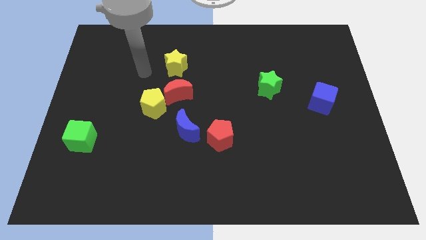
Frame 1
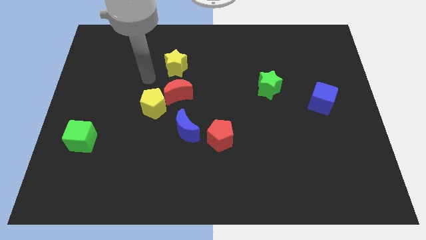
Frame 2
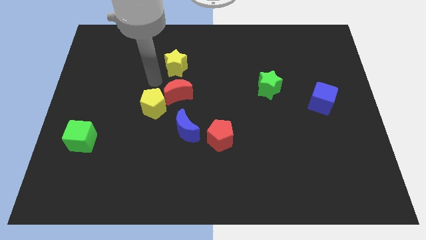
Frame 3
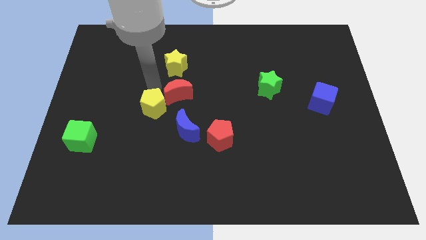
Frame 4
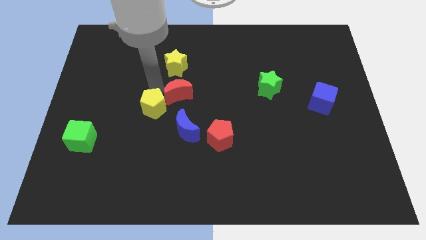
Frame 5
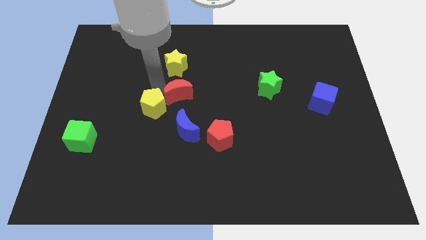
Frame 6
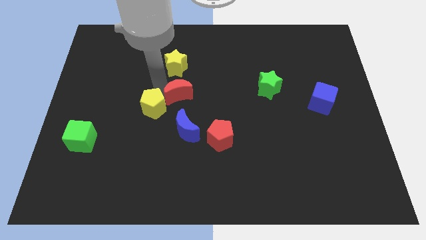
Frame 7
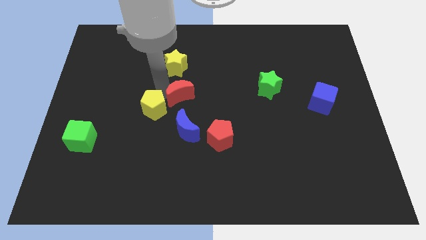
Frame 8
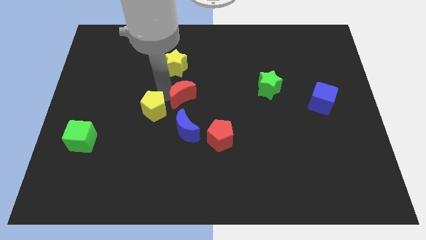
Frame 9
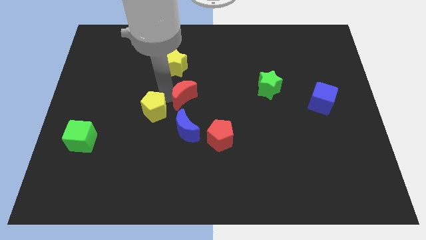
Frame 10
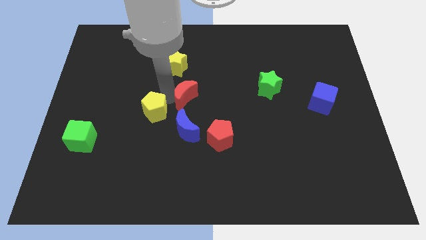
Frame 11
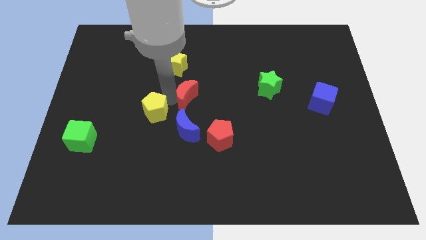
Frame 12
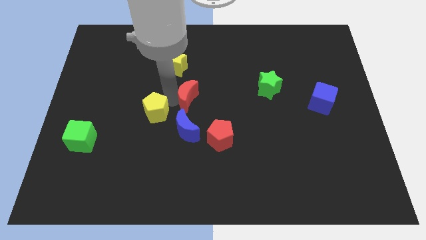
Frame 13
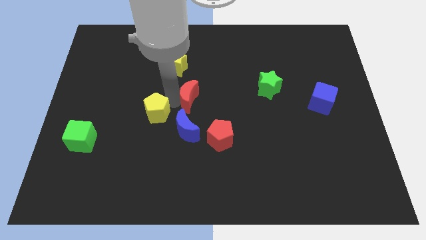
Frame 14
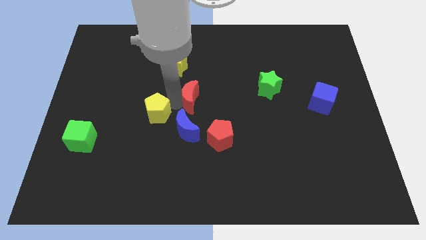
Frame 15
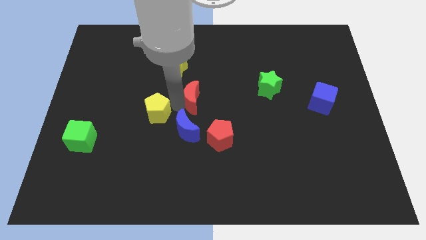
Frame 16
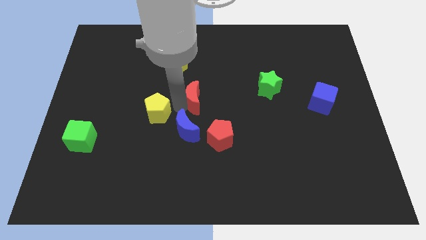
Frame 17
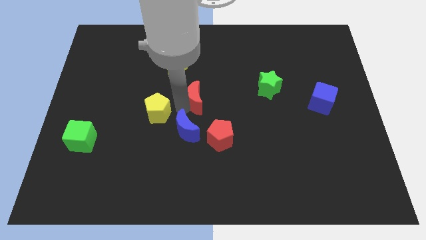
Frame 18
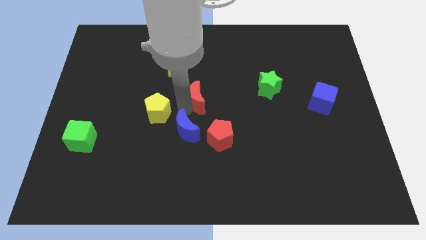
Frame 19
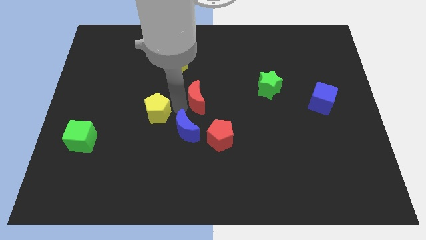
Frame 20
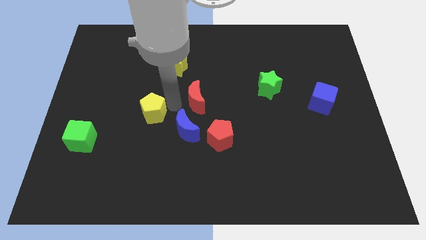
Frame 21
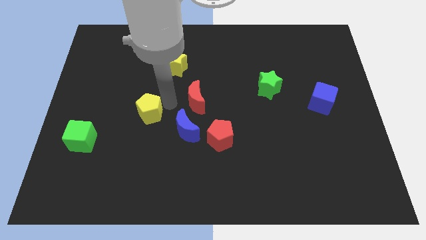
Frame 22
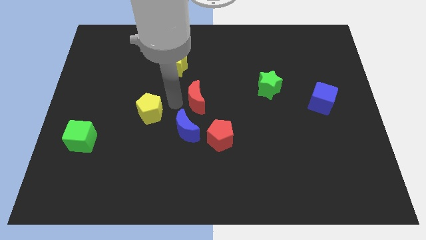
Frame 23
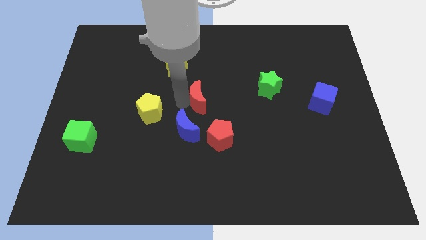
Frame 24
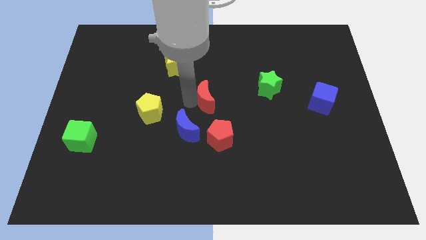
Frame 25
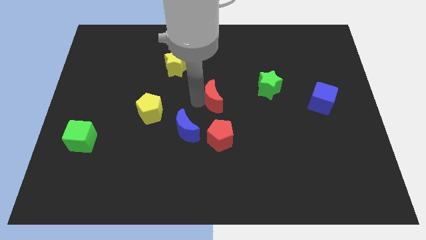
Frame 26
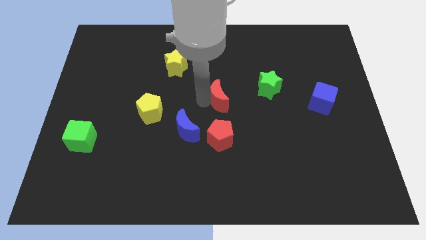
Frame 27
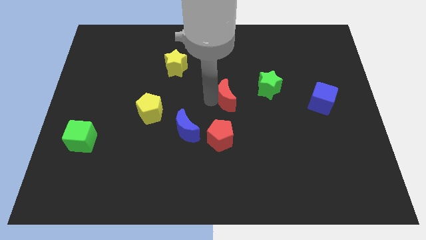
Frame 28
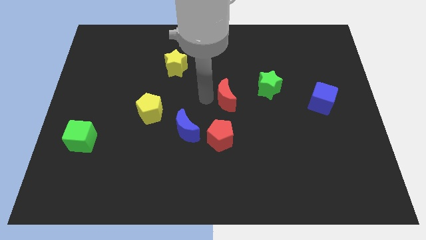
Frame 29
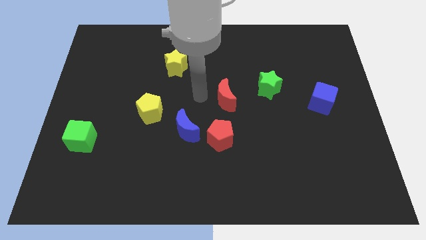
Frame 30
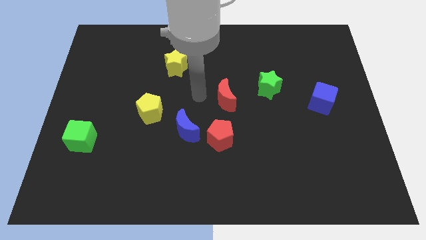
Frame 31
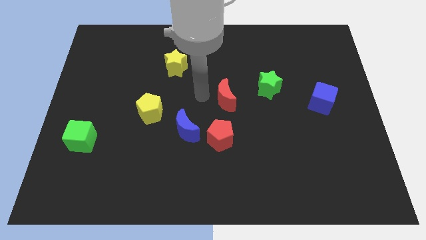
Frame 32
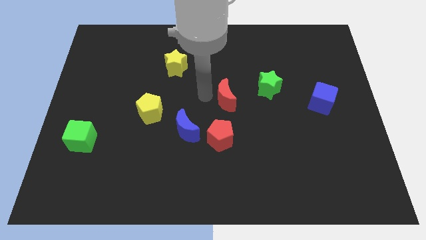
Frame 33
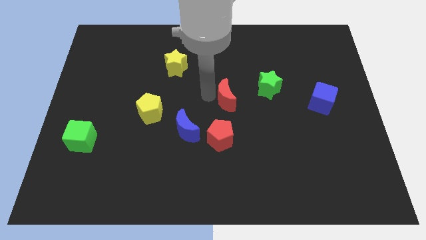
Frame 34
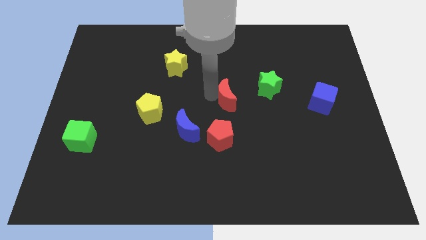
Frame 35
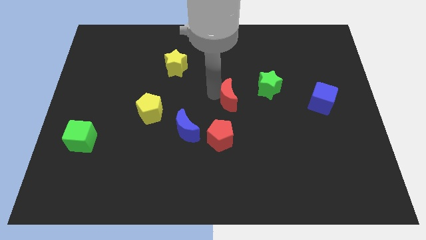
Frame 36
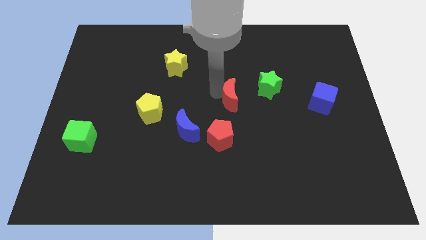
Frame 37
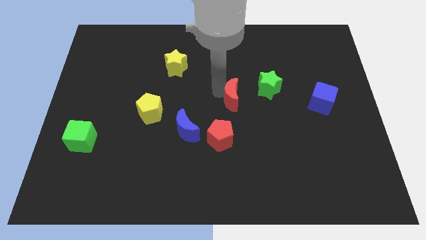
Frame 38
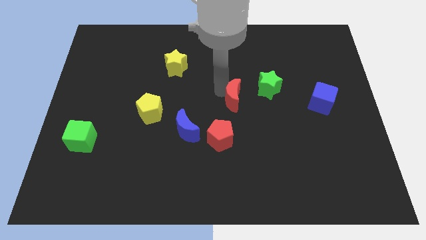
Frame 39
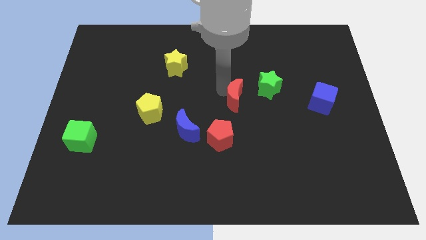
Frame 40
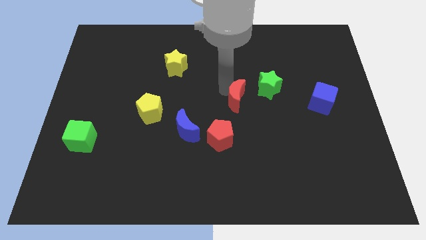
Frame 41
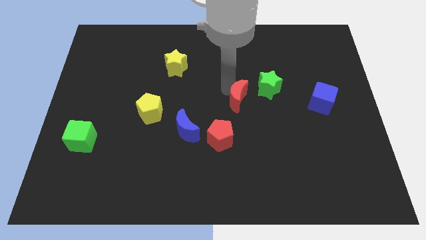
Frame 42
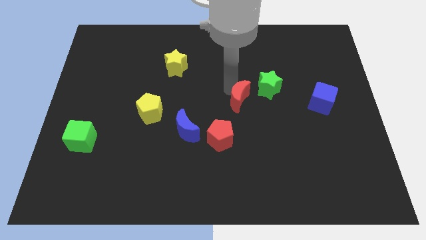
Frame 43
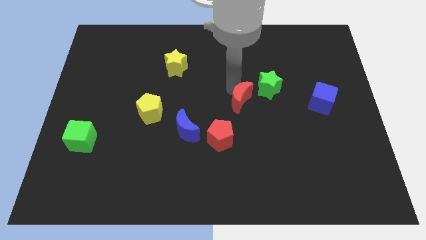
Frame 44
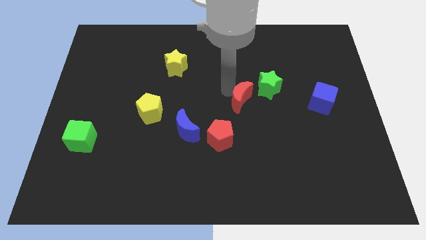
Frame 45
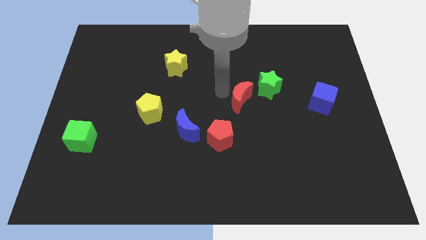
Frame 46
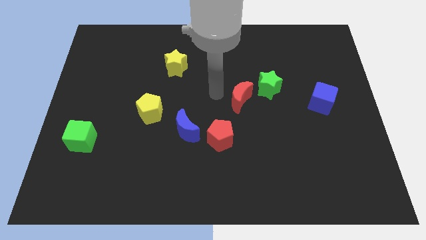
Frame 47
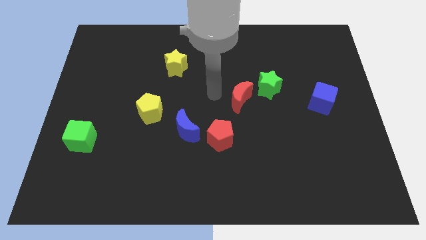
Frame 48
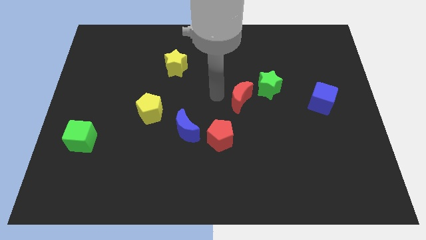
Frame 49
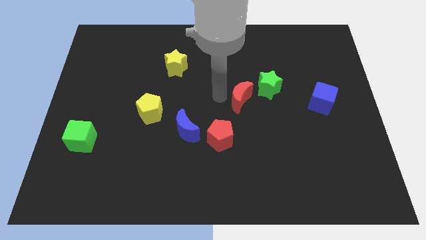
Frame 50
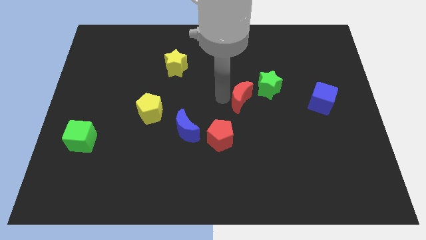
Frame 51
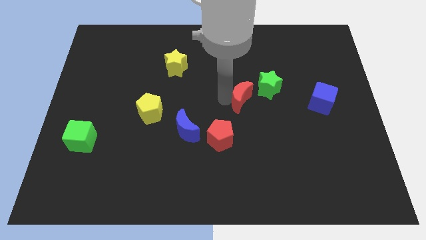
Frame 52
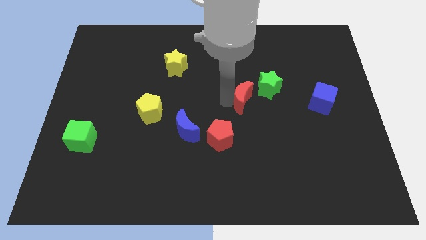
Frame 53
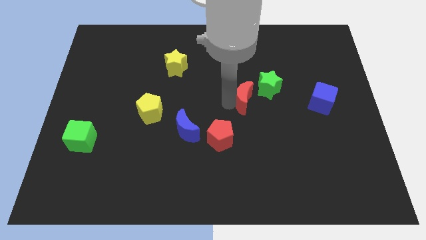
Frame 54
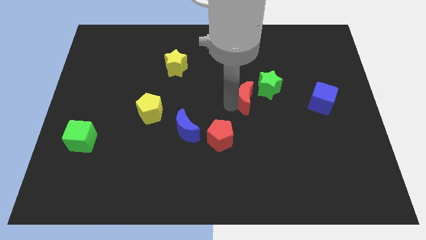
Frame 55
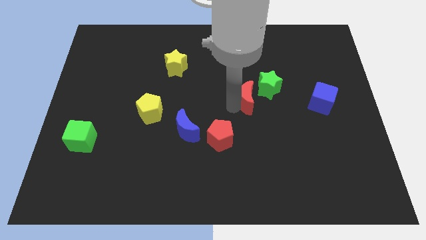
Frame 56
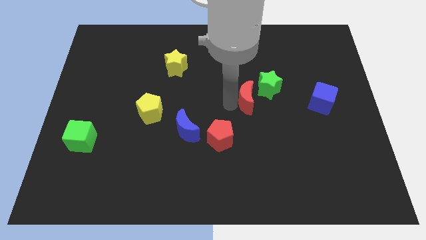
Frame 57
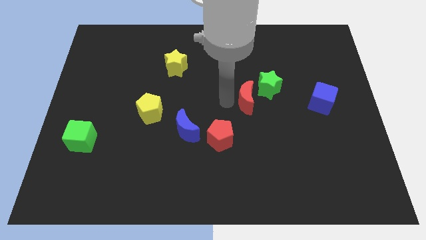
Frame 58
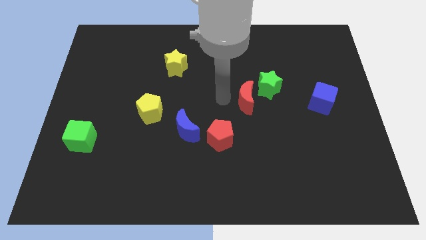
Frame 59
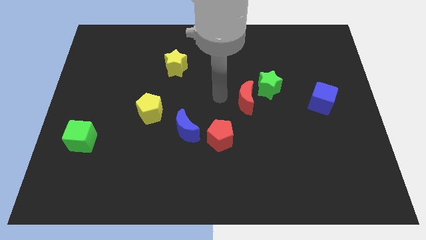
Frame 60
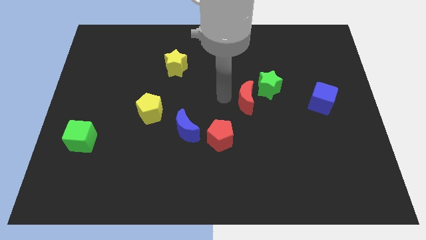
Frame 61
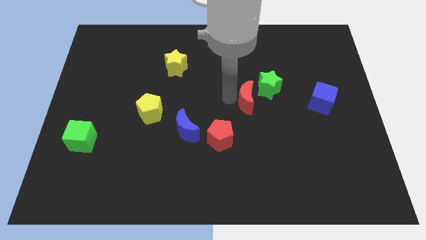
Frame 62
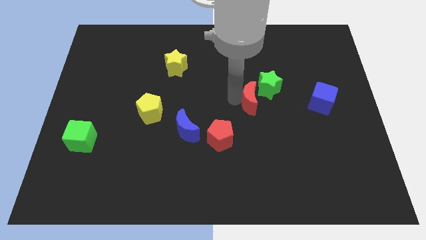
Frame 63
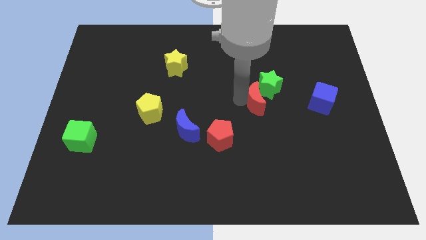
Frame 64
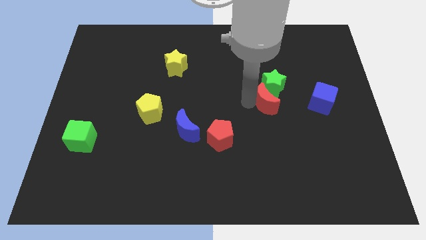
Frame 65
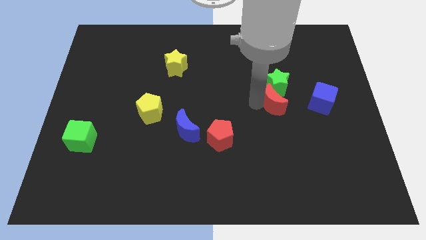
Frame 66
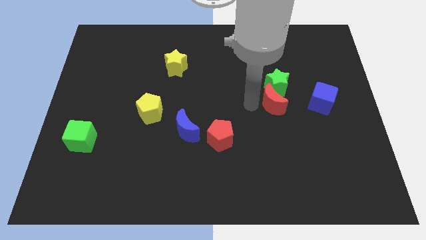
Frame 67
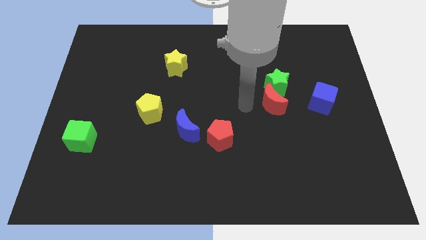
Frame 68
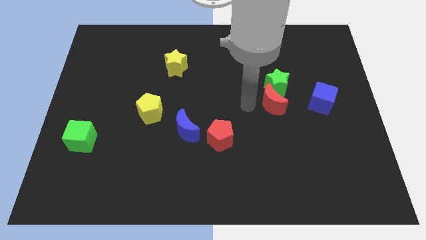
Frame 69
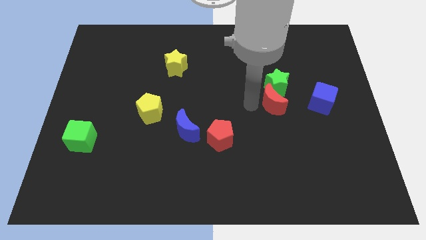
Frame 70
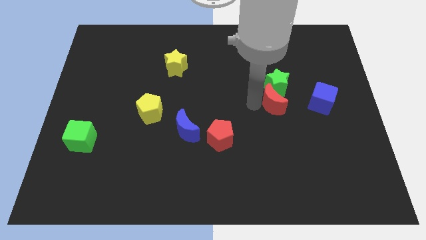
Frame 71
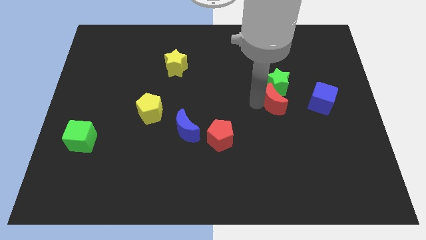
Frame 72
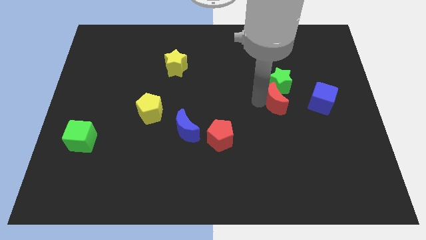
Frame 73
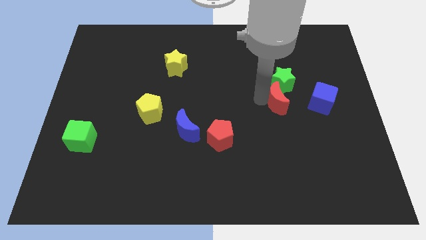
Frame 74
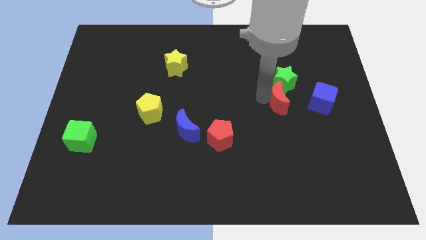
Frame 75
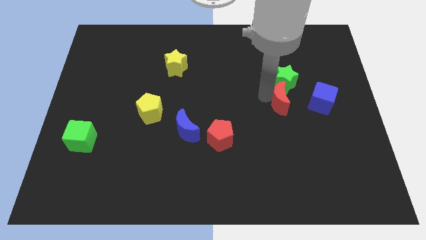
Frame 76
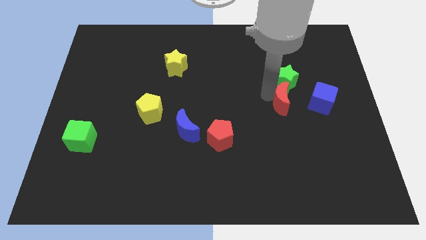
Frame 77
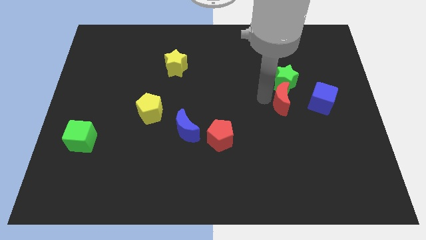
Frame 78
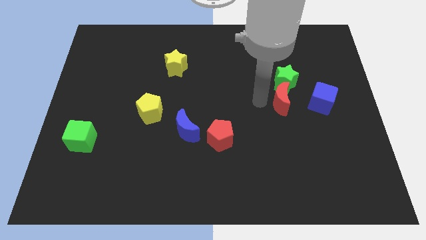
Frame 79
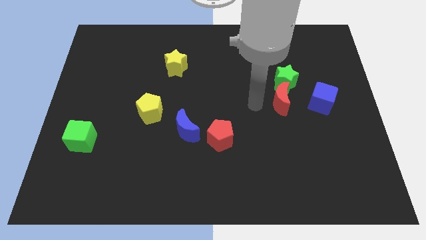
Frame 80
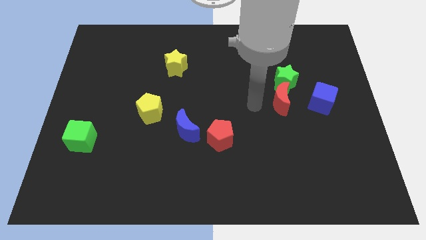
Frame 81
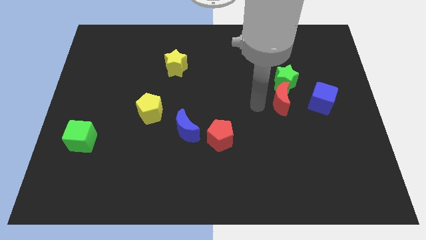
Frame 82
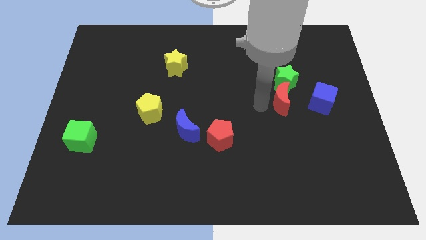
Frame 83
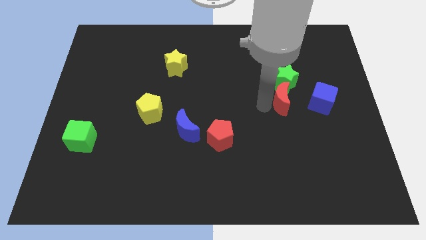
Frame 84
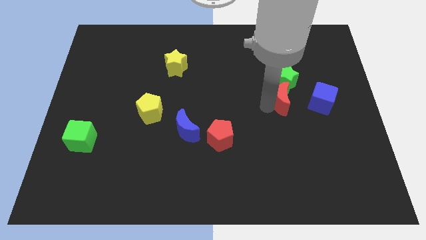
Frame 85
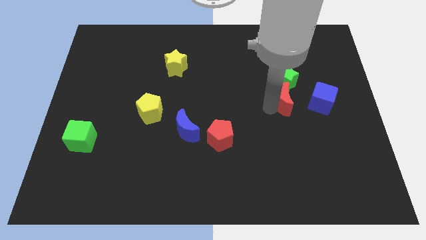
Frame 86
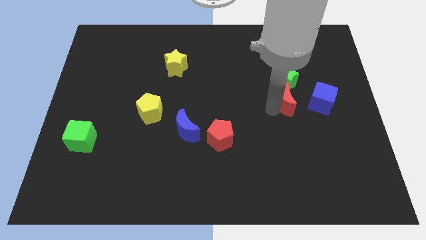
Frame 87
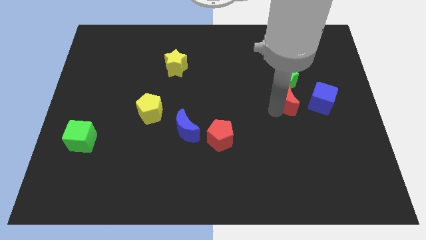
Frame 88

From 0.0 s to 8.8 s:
push the red moon to the bottom right side of the green star
